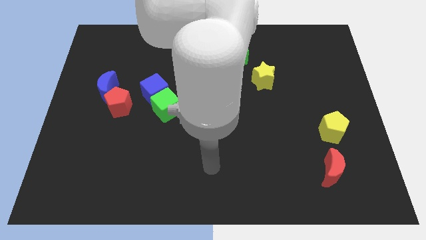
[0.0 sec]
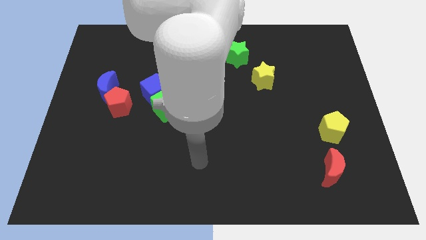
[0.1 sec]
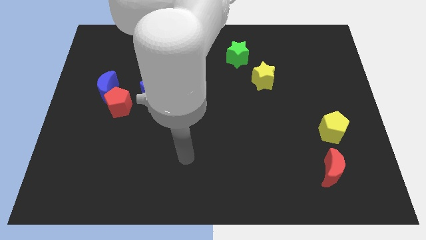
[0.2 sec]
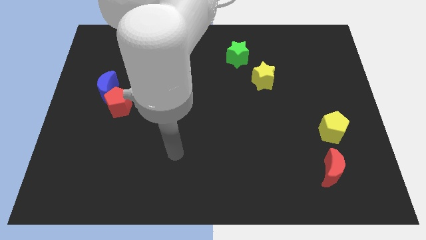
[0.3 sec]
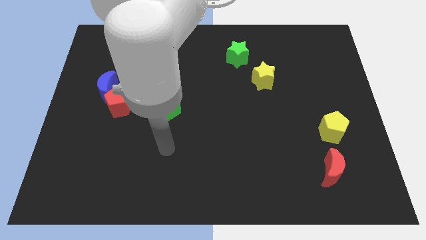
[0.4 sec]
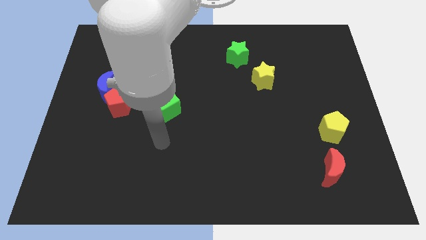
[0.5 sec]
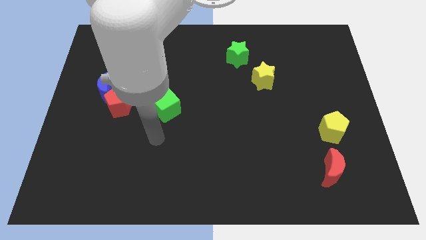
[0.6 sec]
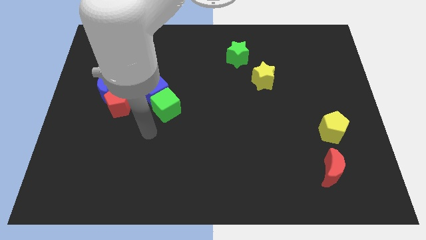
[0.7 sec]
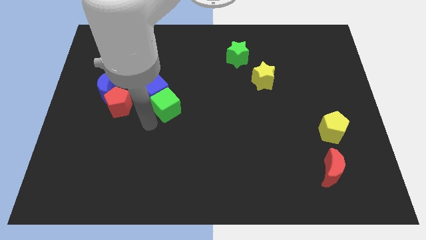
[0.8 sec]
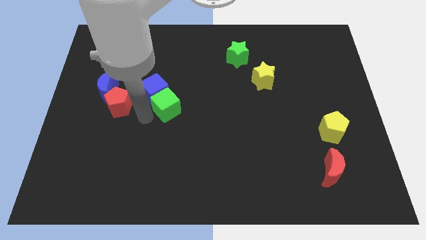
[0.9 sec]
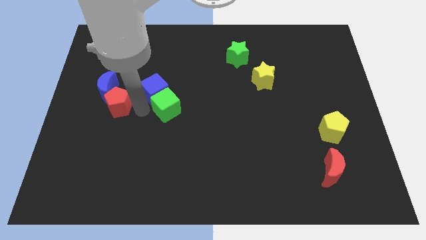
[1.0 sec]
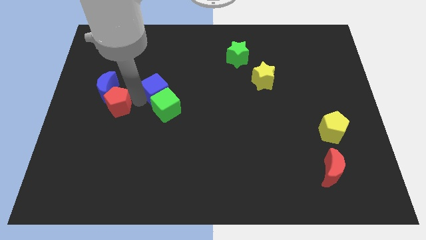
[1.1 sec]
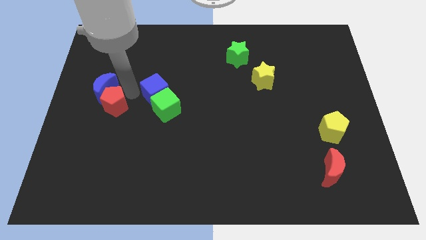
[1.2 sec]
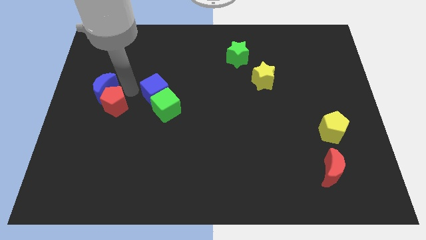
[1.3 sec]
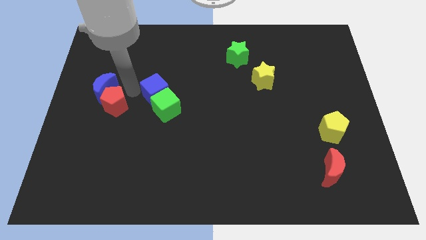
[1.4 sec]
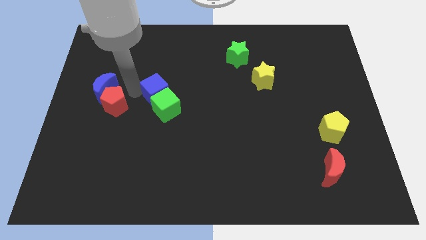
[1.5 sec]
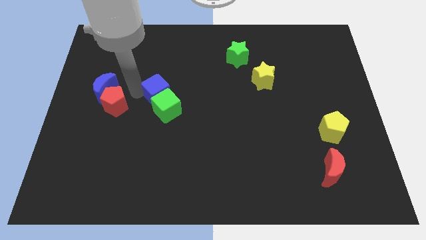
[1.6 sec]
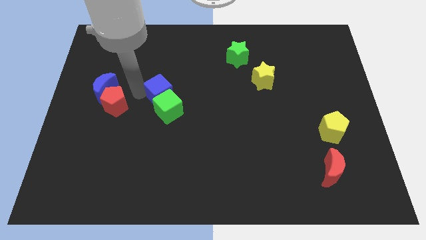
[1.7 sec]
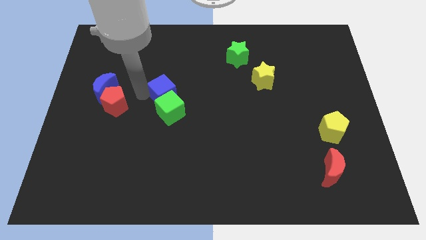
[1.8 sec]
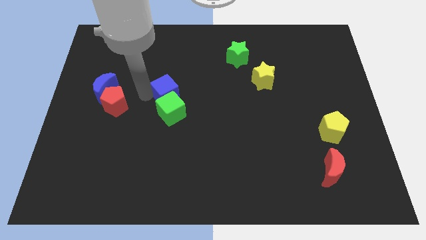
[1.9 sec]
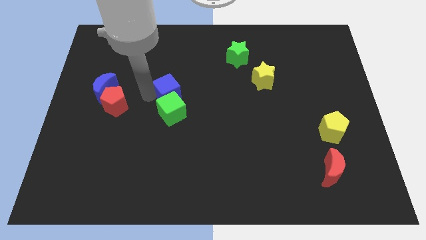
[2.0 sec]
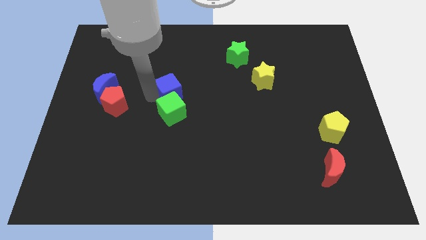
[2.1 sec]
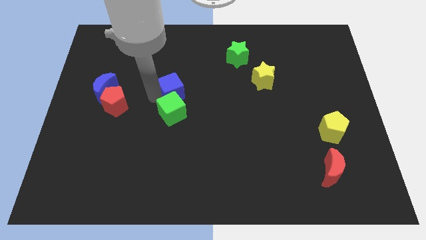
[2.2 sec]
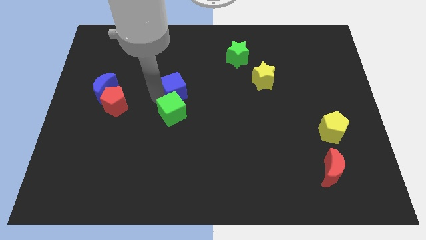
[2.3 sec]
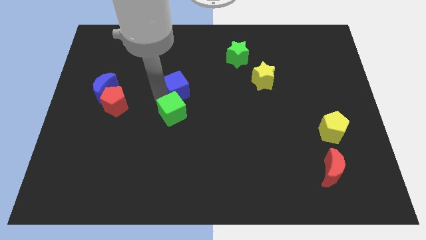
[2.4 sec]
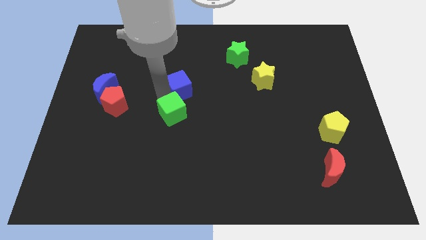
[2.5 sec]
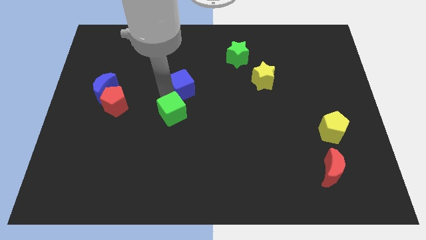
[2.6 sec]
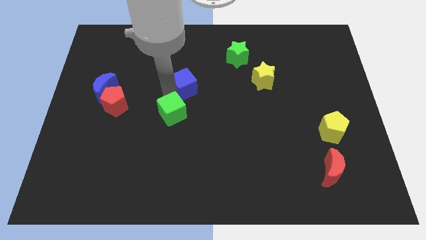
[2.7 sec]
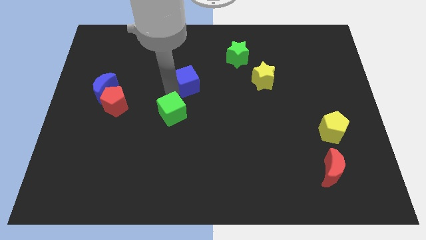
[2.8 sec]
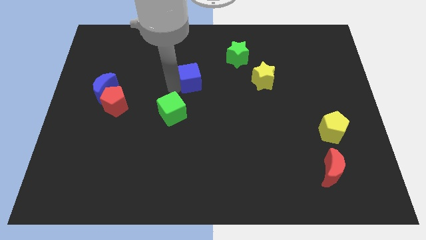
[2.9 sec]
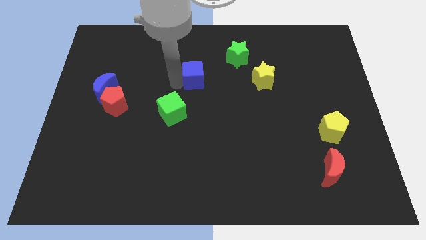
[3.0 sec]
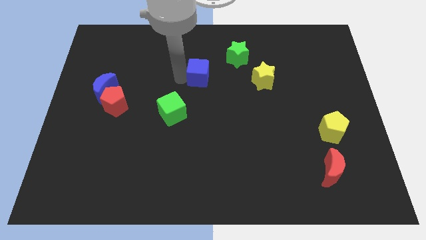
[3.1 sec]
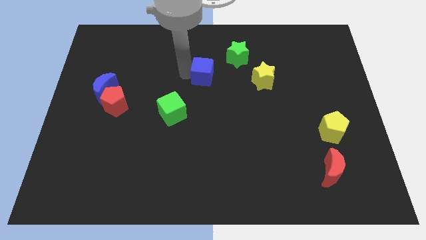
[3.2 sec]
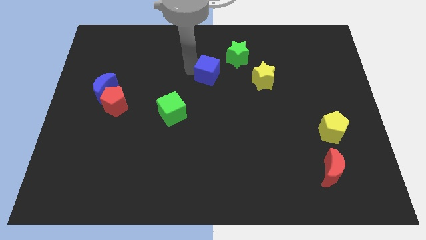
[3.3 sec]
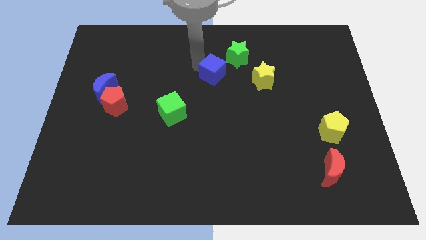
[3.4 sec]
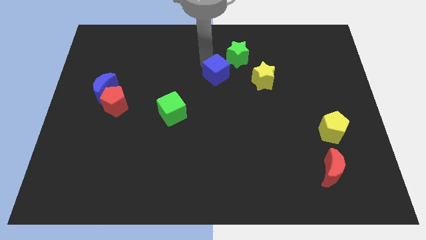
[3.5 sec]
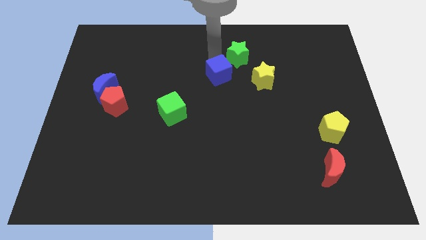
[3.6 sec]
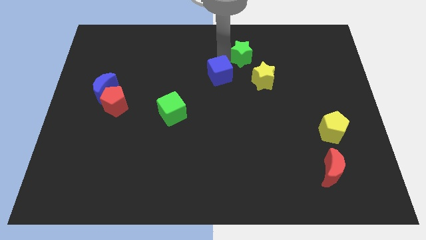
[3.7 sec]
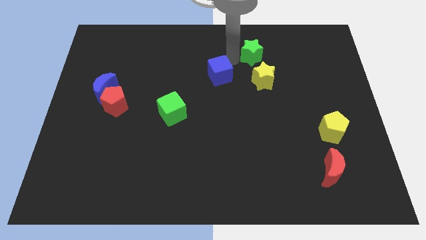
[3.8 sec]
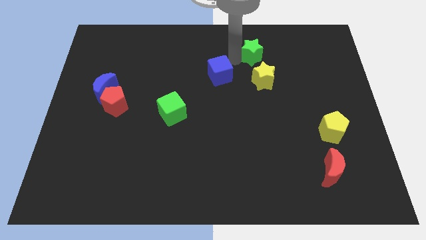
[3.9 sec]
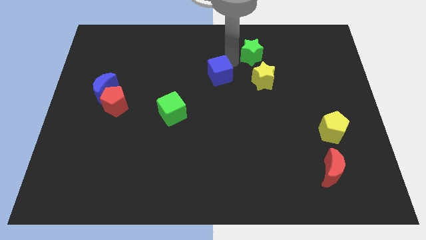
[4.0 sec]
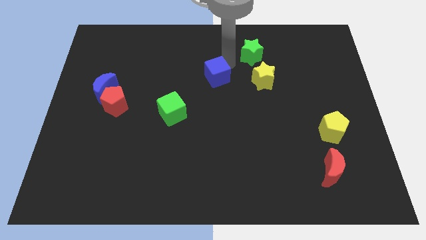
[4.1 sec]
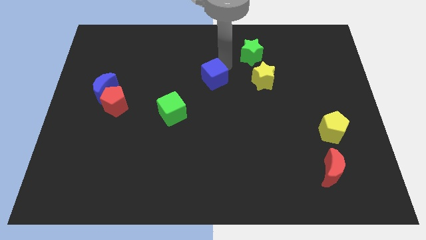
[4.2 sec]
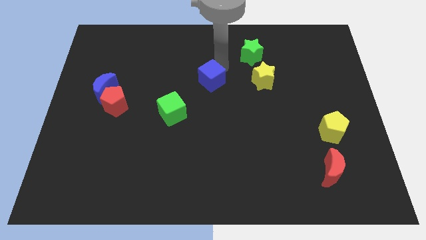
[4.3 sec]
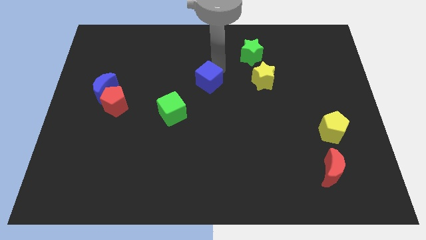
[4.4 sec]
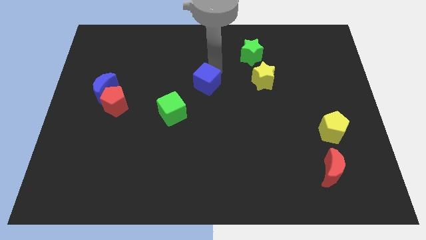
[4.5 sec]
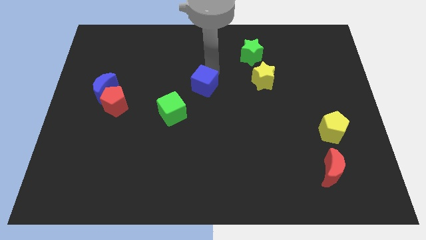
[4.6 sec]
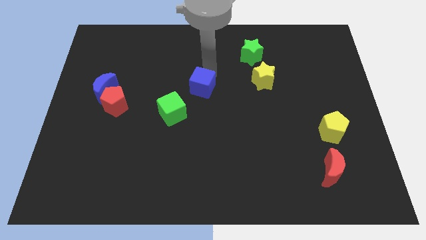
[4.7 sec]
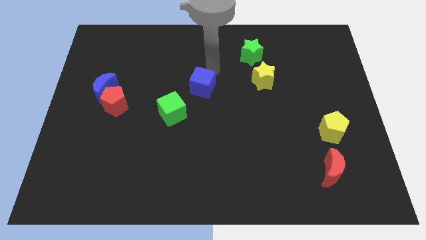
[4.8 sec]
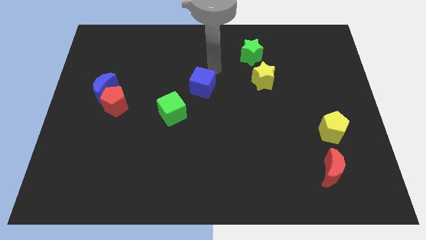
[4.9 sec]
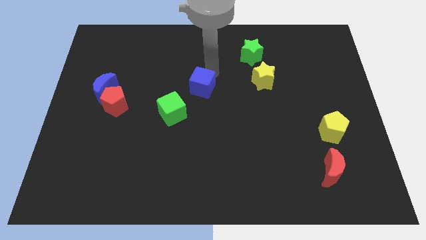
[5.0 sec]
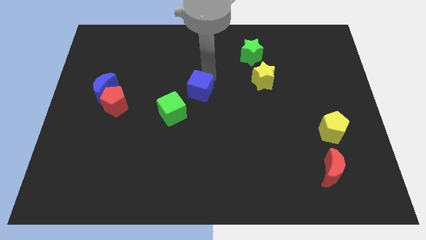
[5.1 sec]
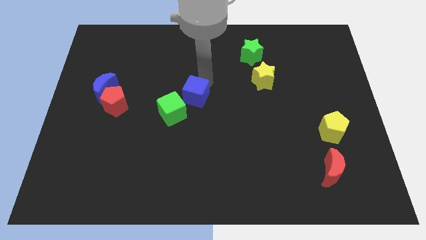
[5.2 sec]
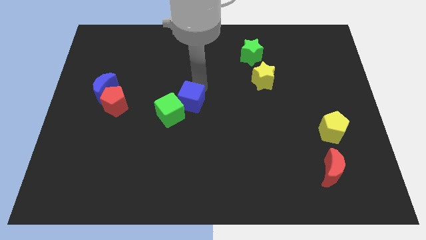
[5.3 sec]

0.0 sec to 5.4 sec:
move the blue cube a little bit down and right

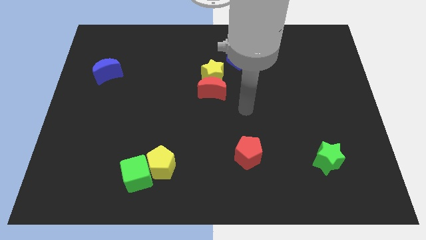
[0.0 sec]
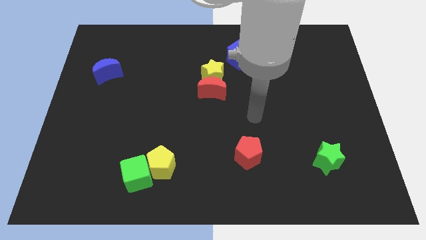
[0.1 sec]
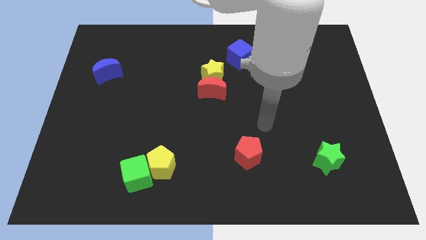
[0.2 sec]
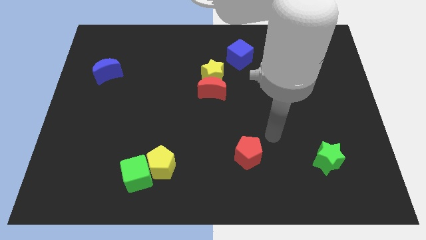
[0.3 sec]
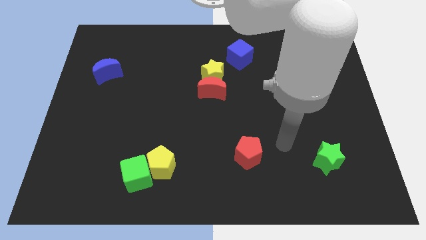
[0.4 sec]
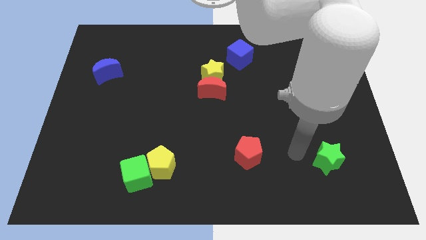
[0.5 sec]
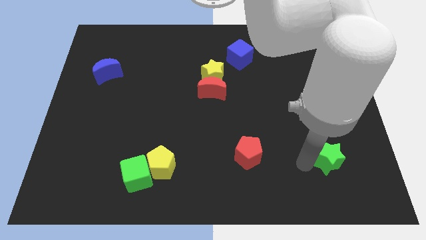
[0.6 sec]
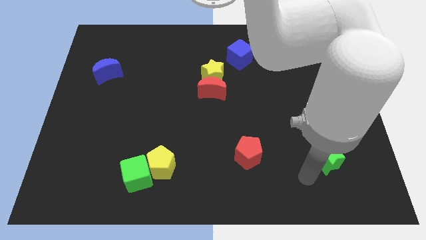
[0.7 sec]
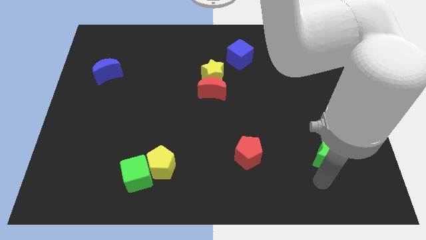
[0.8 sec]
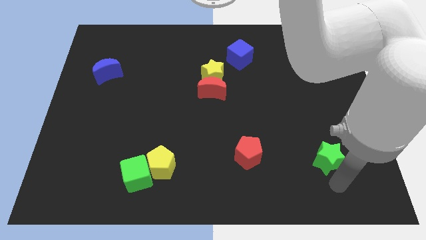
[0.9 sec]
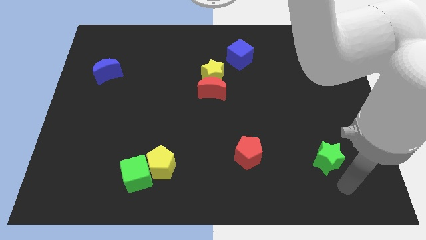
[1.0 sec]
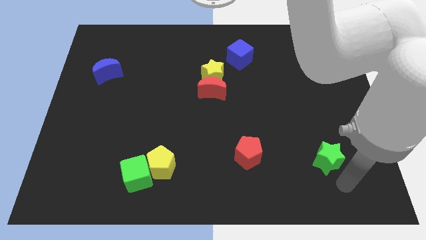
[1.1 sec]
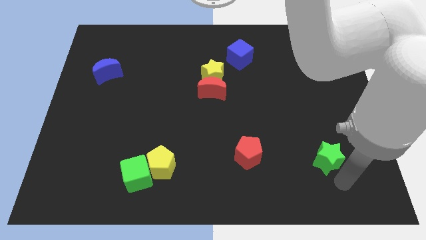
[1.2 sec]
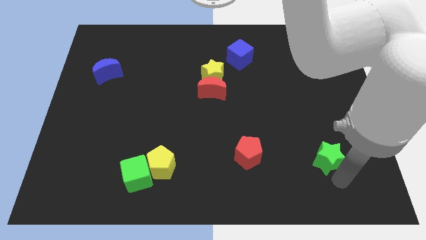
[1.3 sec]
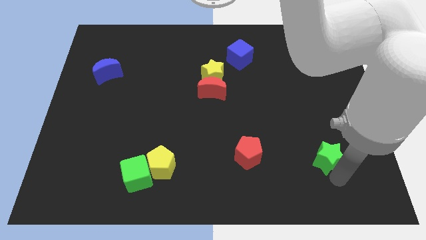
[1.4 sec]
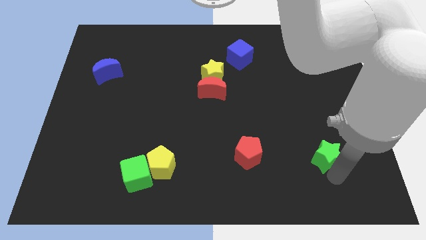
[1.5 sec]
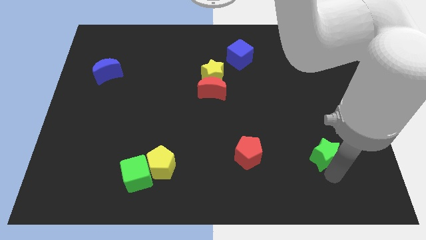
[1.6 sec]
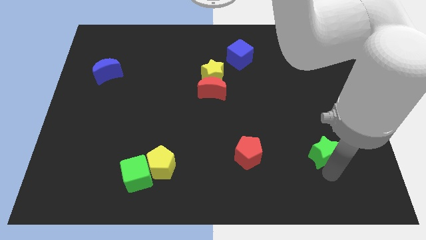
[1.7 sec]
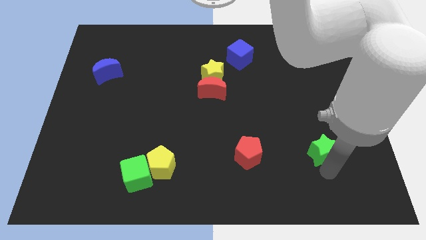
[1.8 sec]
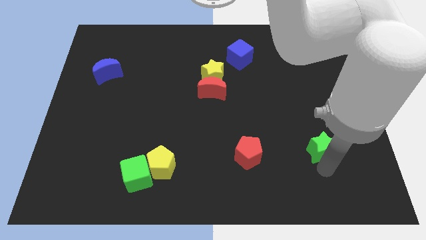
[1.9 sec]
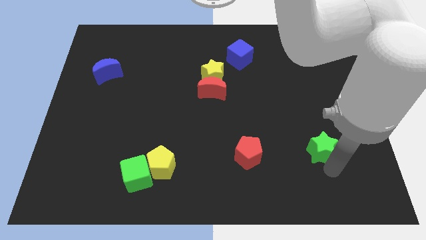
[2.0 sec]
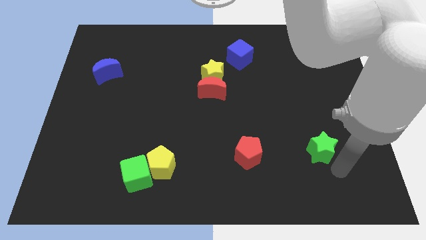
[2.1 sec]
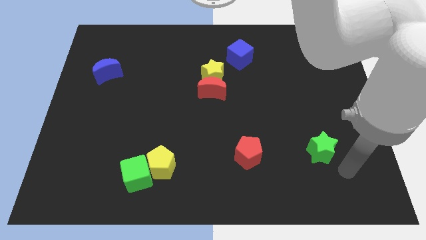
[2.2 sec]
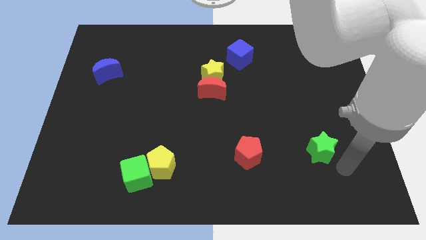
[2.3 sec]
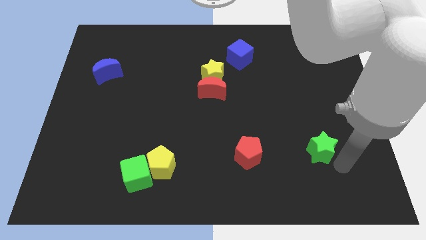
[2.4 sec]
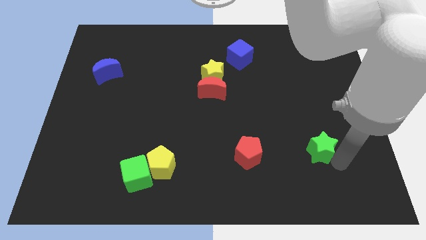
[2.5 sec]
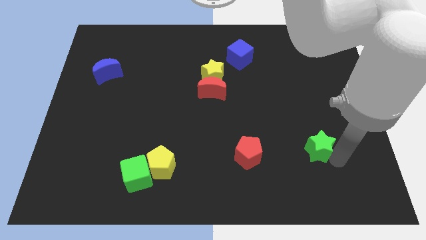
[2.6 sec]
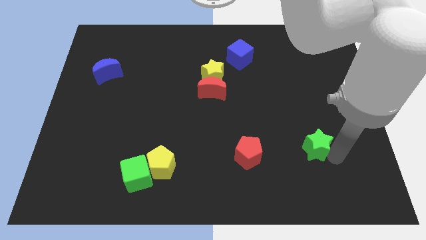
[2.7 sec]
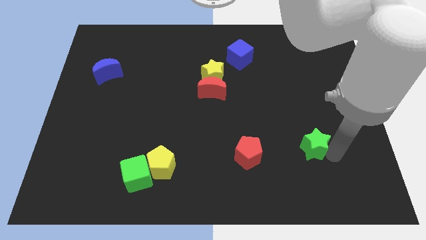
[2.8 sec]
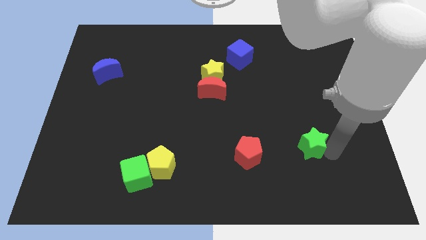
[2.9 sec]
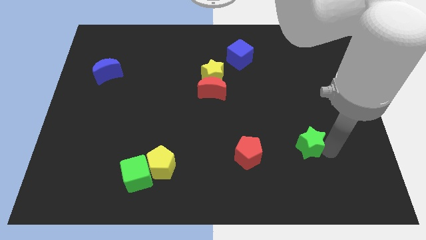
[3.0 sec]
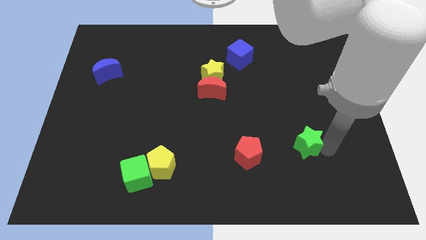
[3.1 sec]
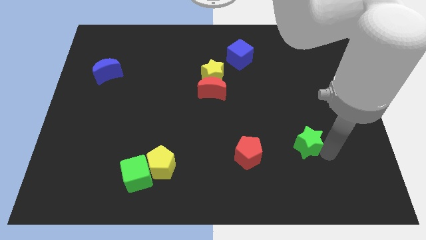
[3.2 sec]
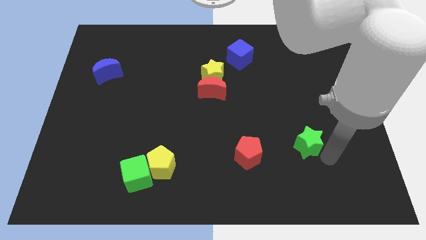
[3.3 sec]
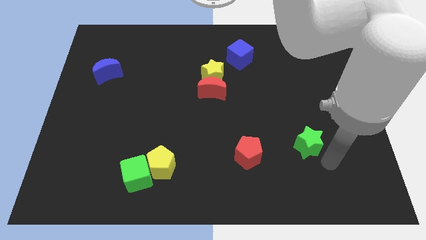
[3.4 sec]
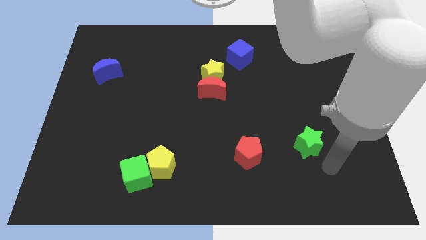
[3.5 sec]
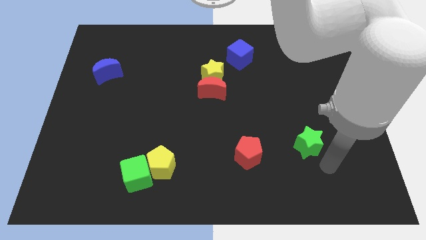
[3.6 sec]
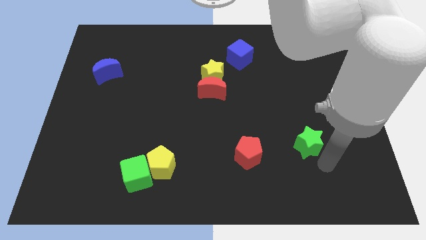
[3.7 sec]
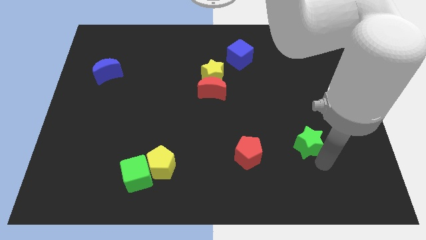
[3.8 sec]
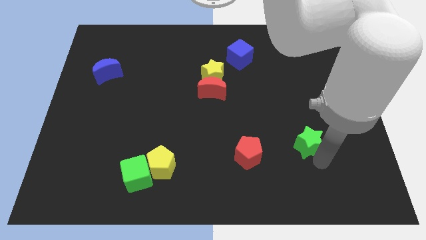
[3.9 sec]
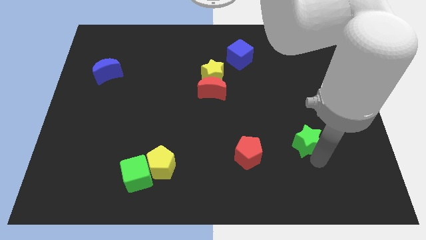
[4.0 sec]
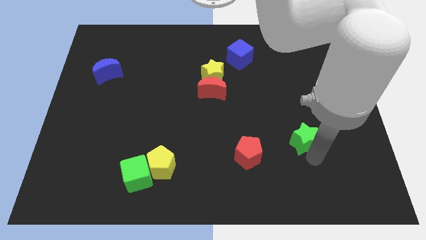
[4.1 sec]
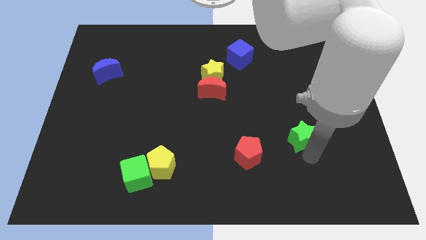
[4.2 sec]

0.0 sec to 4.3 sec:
push the green star a little diagonally upwards and left
